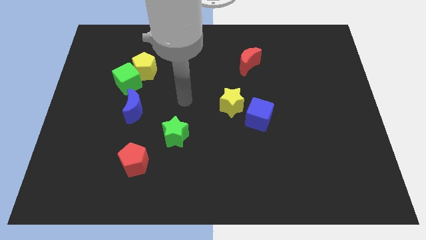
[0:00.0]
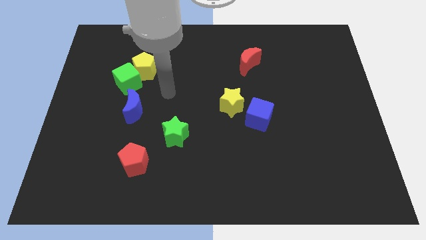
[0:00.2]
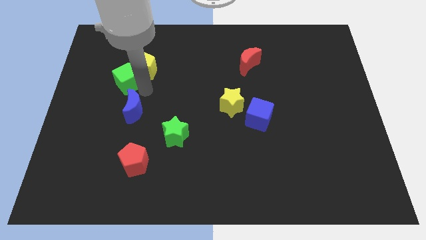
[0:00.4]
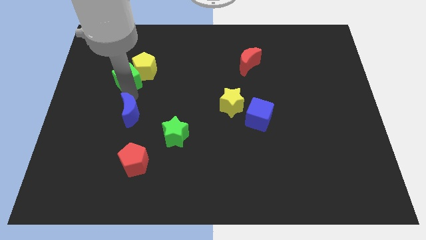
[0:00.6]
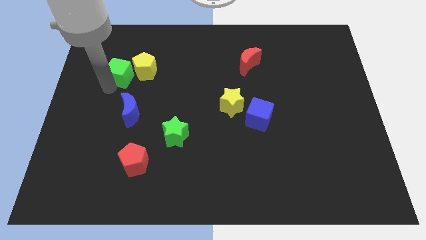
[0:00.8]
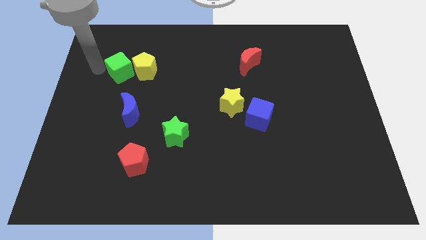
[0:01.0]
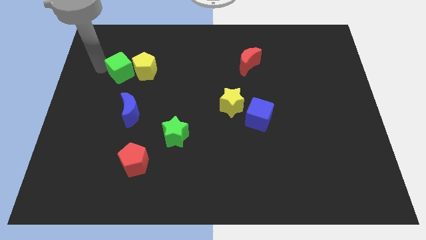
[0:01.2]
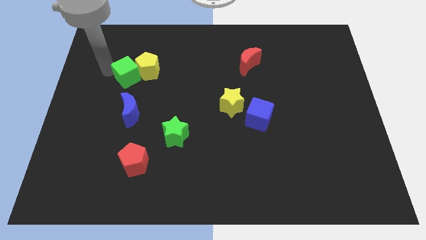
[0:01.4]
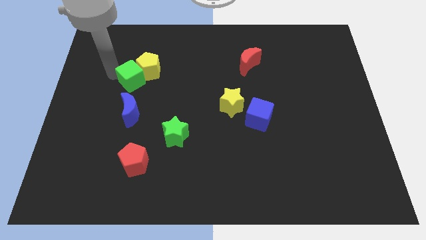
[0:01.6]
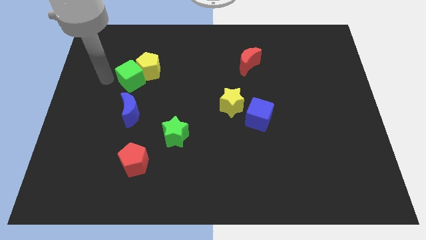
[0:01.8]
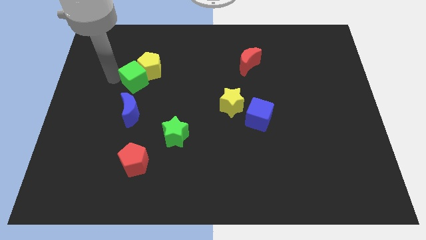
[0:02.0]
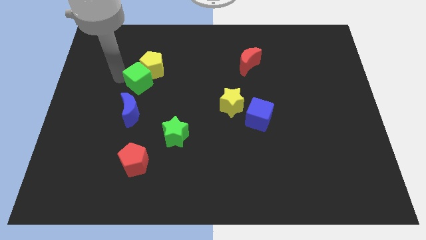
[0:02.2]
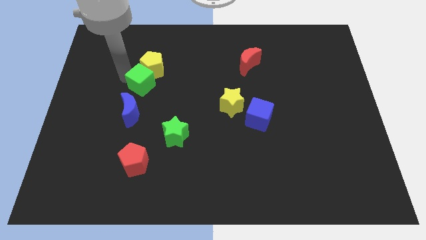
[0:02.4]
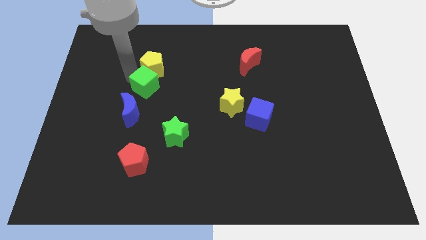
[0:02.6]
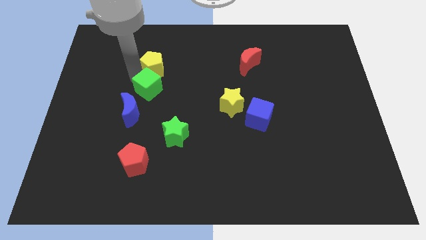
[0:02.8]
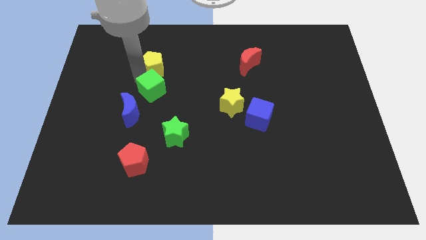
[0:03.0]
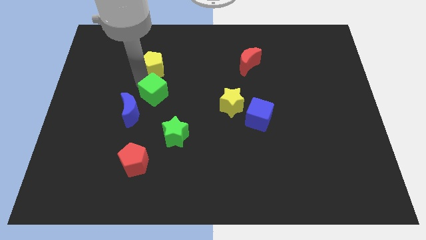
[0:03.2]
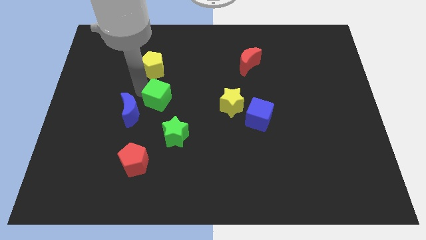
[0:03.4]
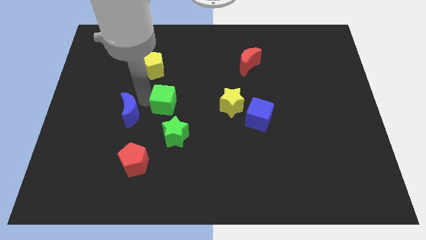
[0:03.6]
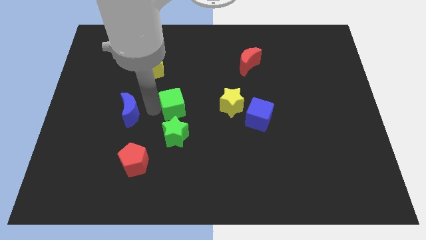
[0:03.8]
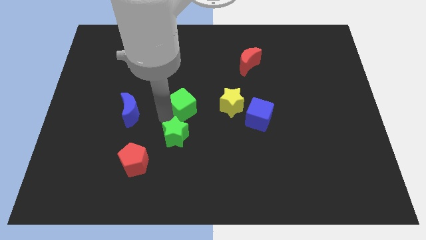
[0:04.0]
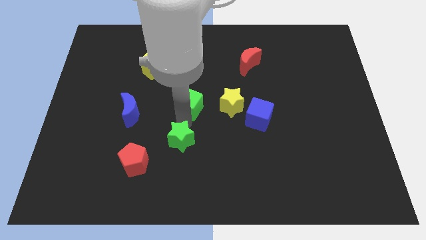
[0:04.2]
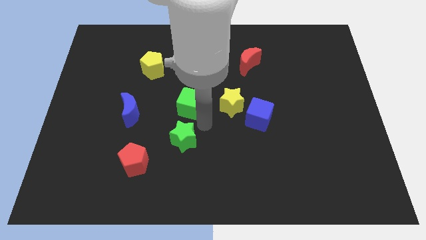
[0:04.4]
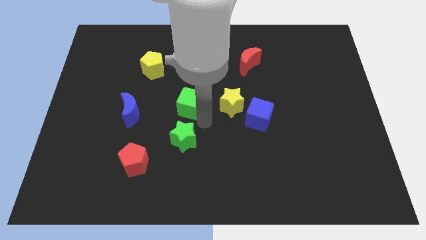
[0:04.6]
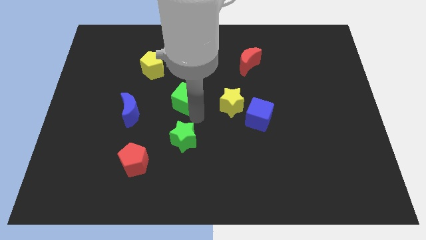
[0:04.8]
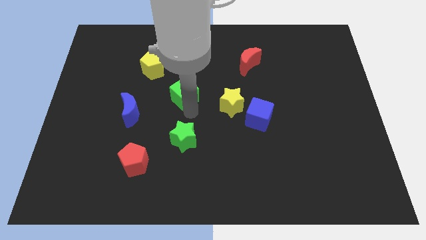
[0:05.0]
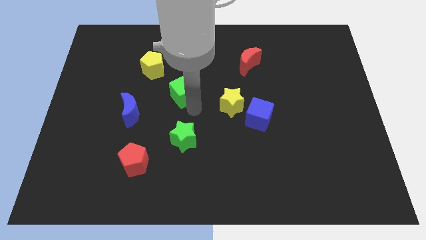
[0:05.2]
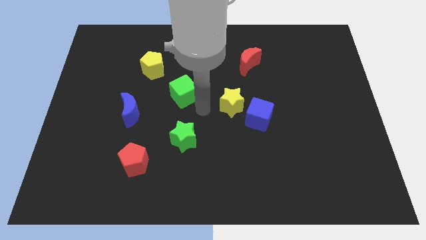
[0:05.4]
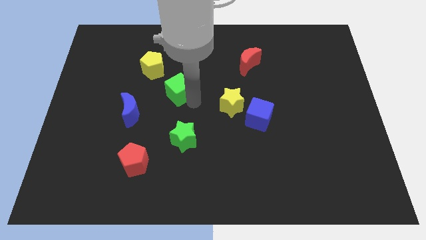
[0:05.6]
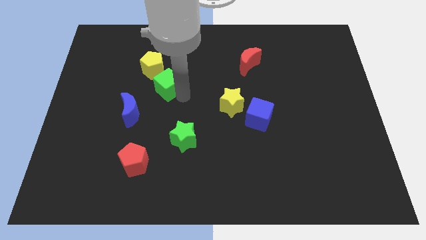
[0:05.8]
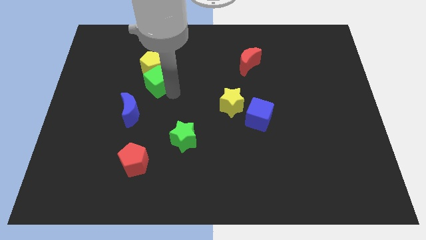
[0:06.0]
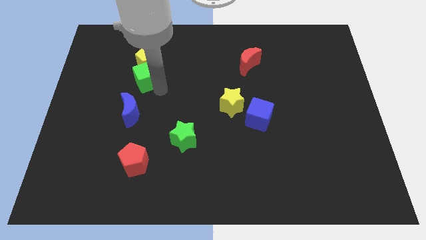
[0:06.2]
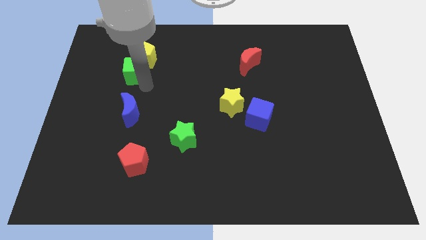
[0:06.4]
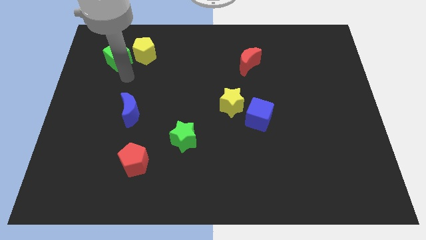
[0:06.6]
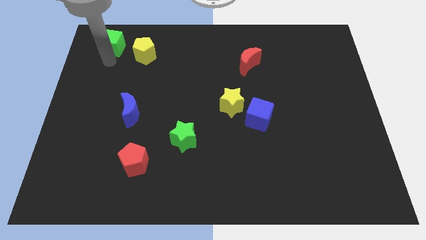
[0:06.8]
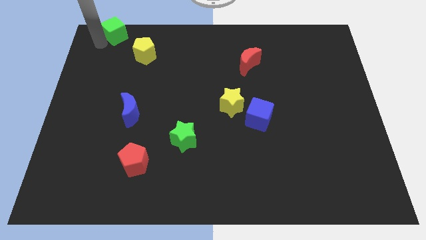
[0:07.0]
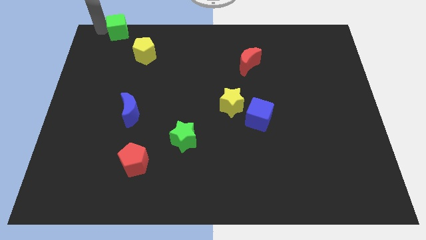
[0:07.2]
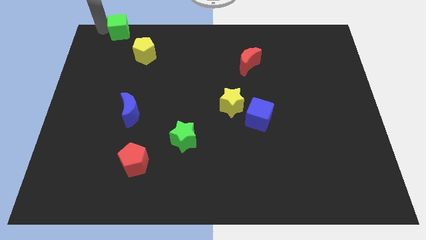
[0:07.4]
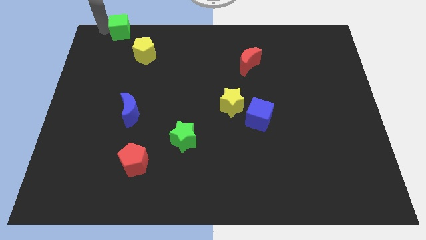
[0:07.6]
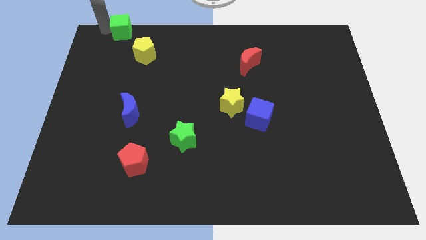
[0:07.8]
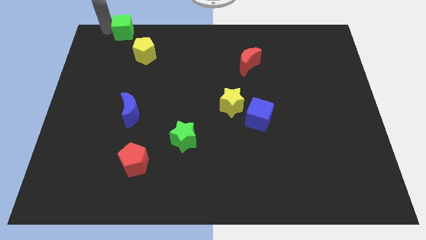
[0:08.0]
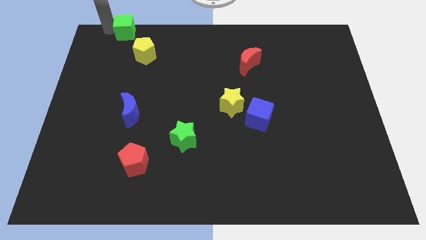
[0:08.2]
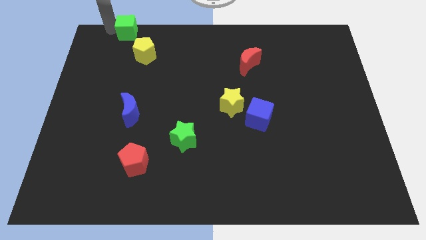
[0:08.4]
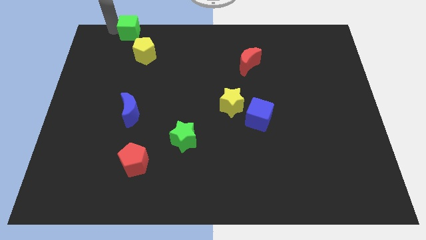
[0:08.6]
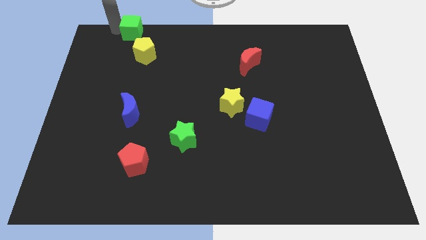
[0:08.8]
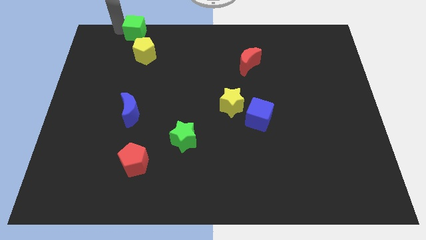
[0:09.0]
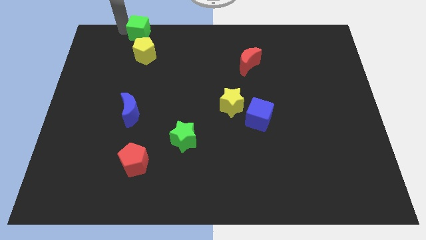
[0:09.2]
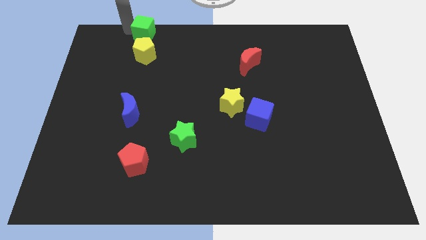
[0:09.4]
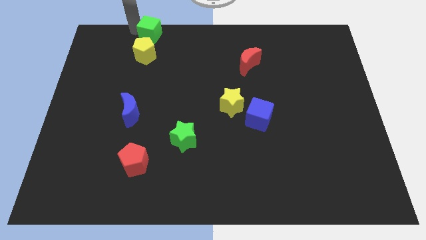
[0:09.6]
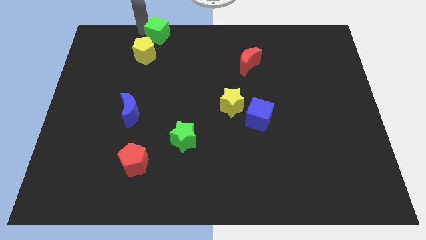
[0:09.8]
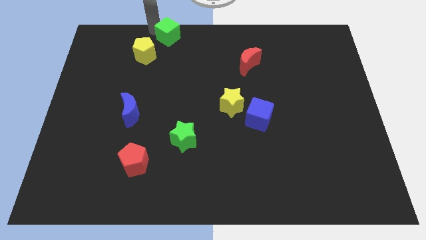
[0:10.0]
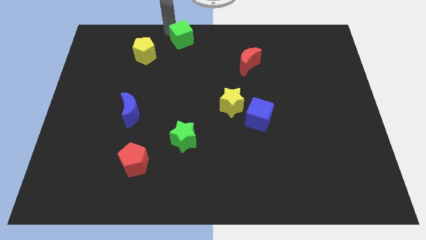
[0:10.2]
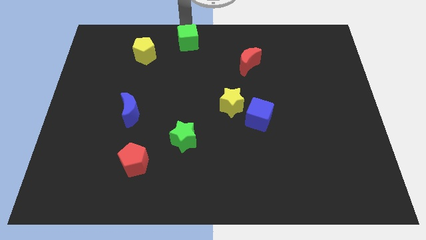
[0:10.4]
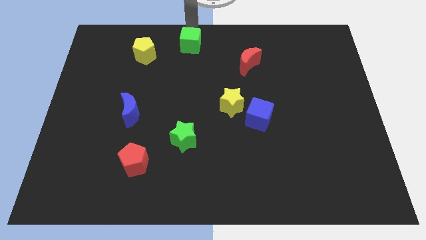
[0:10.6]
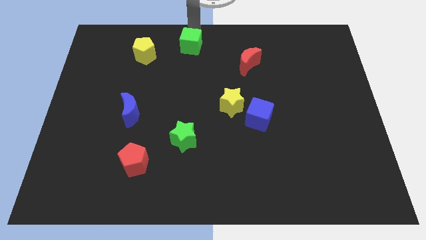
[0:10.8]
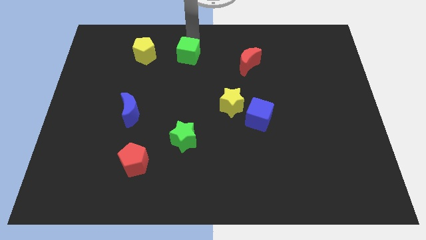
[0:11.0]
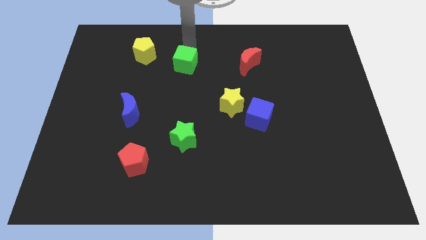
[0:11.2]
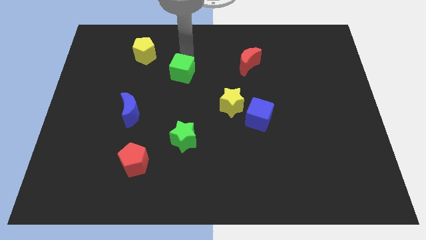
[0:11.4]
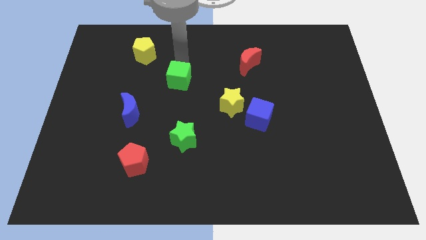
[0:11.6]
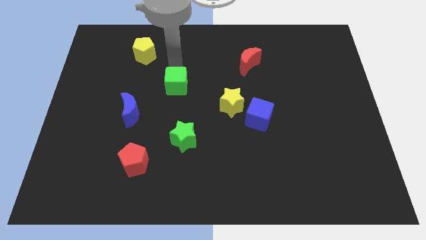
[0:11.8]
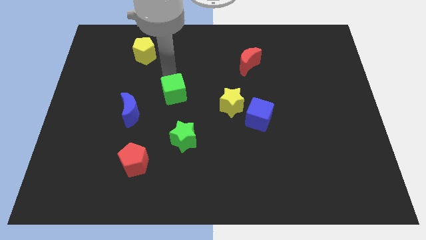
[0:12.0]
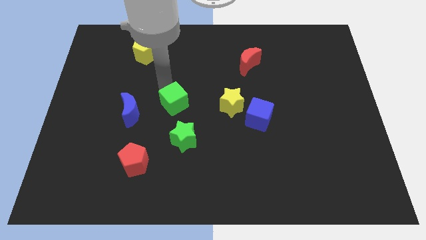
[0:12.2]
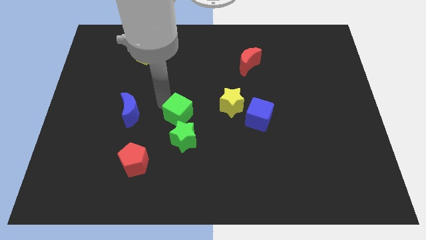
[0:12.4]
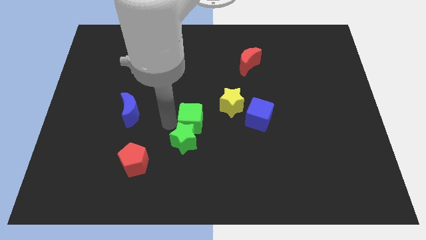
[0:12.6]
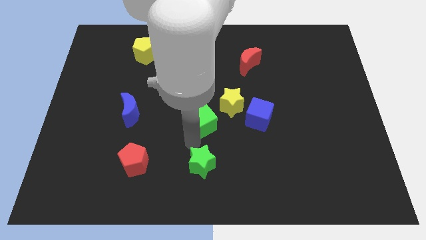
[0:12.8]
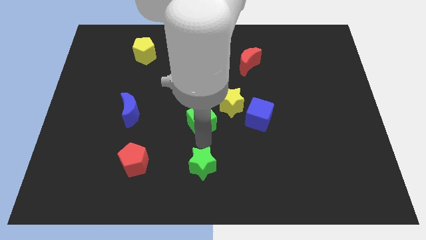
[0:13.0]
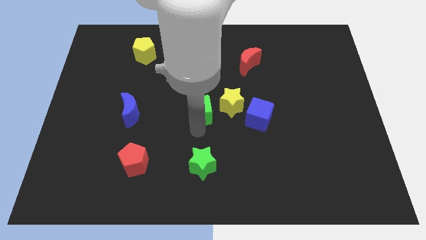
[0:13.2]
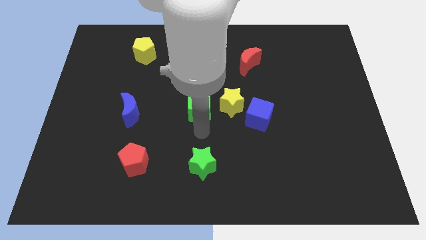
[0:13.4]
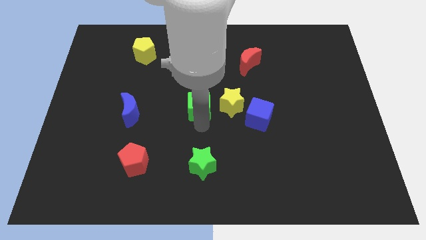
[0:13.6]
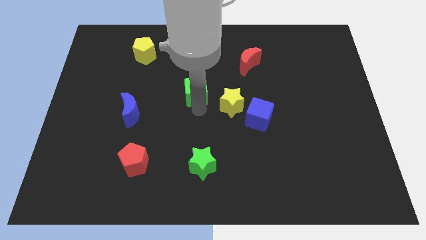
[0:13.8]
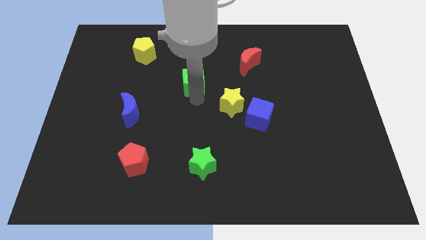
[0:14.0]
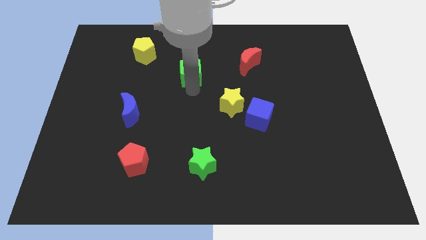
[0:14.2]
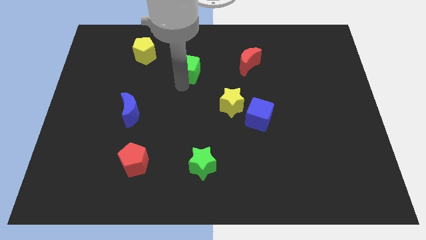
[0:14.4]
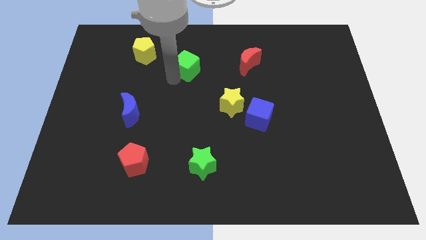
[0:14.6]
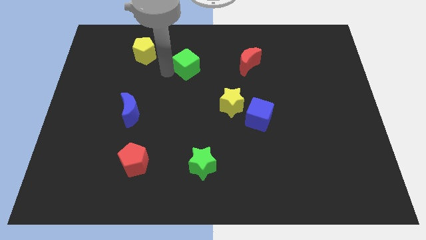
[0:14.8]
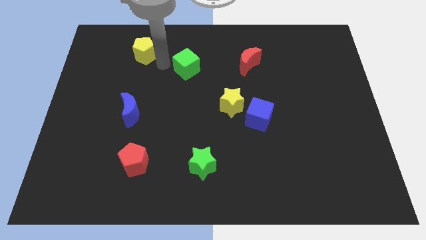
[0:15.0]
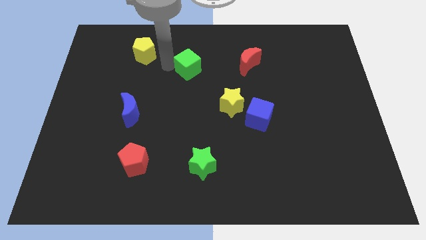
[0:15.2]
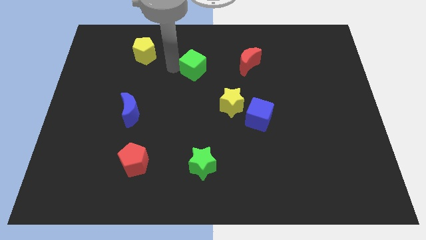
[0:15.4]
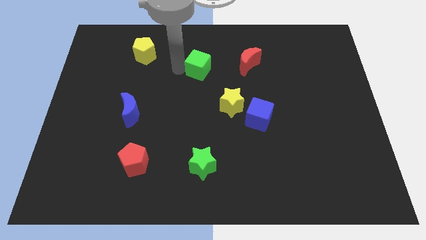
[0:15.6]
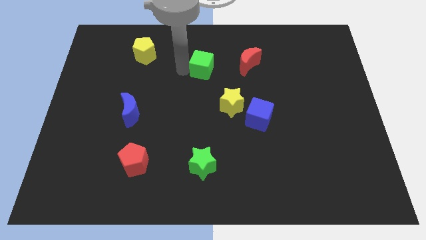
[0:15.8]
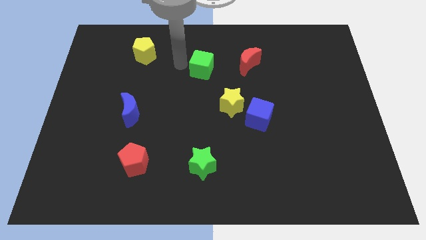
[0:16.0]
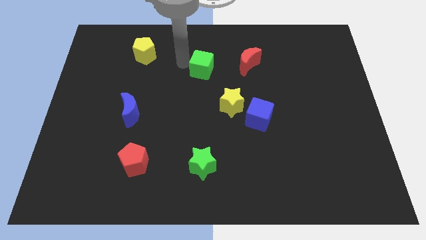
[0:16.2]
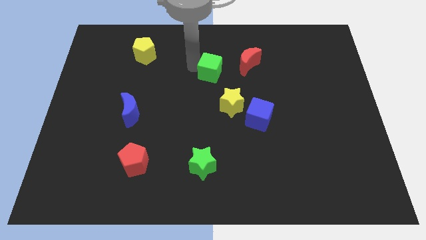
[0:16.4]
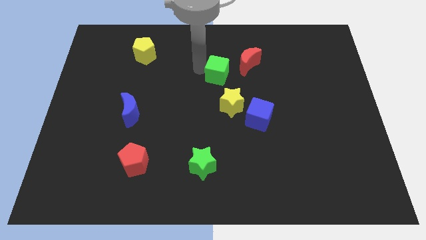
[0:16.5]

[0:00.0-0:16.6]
put the green cube above the yellow star
